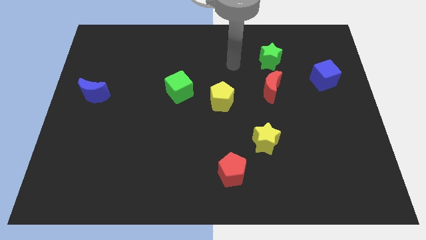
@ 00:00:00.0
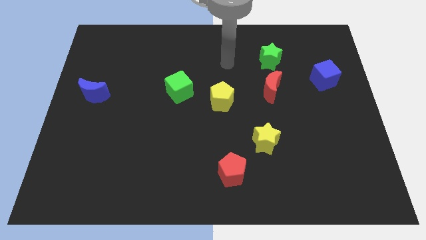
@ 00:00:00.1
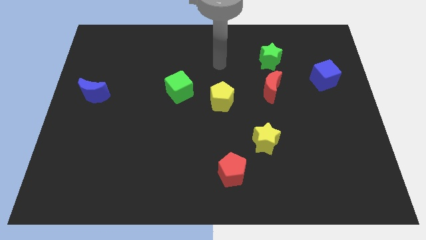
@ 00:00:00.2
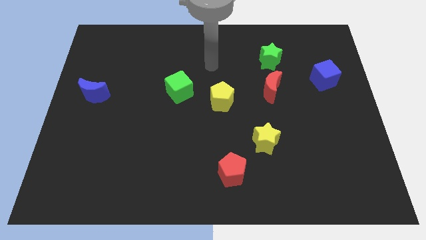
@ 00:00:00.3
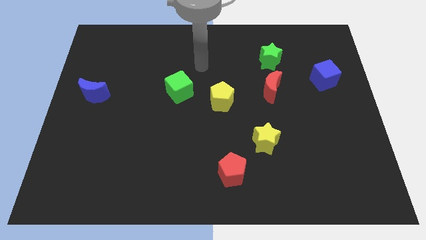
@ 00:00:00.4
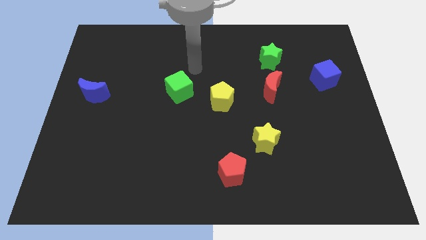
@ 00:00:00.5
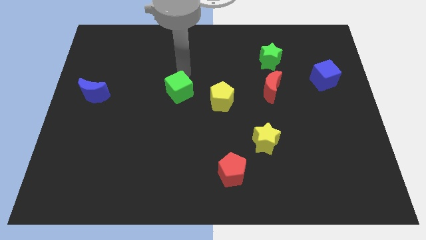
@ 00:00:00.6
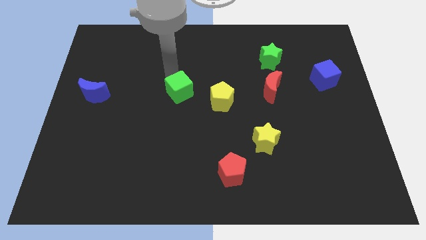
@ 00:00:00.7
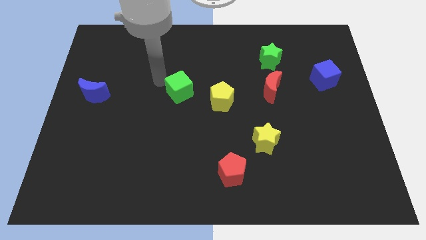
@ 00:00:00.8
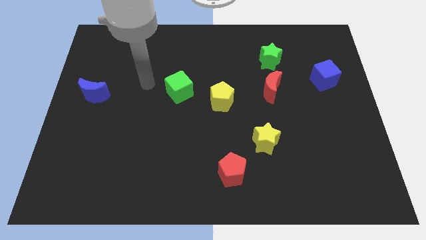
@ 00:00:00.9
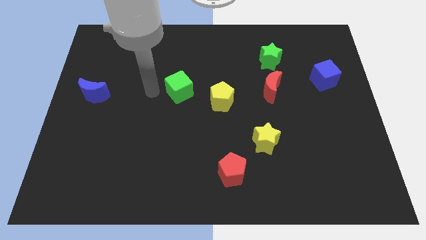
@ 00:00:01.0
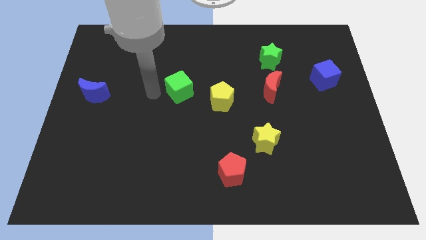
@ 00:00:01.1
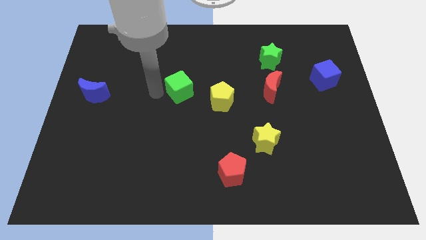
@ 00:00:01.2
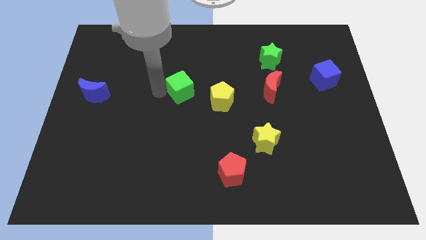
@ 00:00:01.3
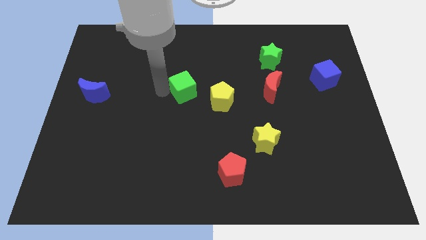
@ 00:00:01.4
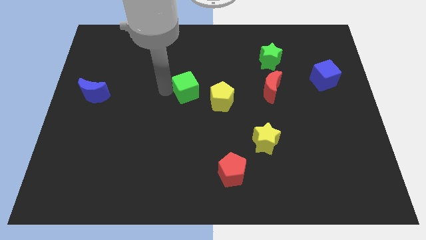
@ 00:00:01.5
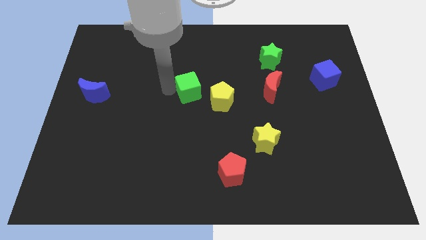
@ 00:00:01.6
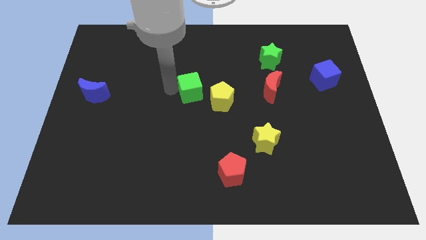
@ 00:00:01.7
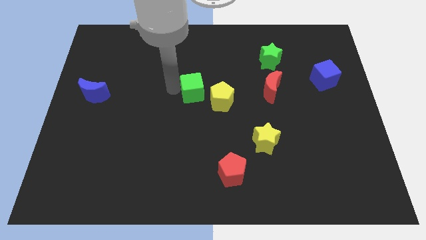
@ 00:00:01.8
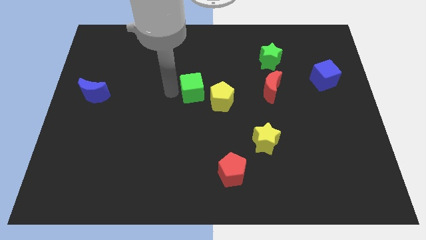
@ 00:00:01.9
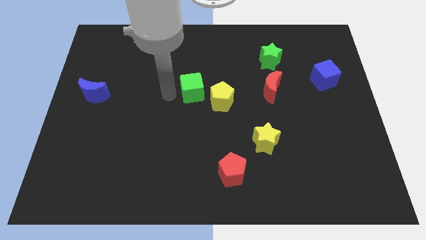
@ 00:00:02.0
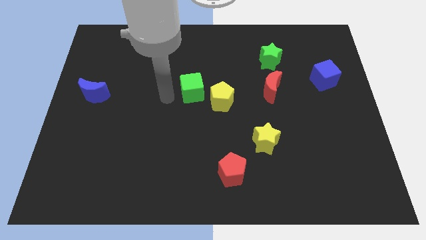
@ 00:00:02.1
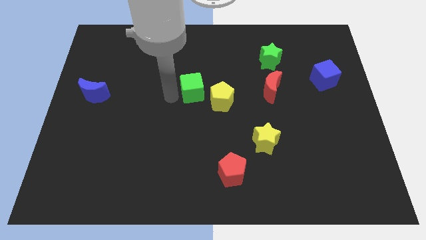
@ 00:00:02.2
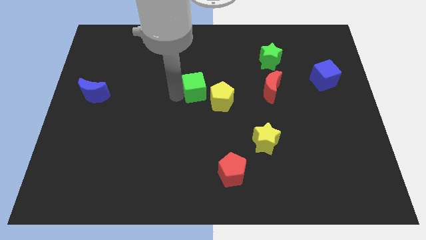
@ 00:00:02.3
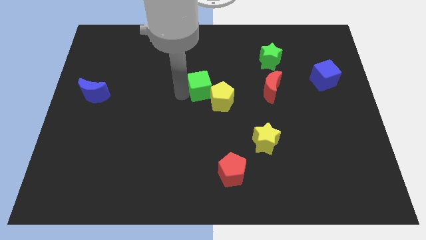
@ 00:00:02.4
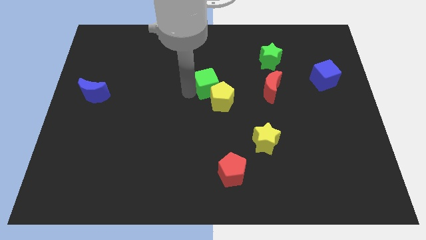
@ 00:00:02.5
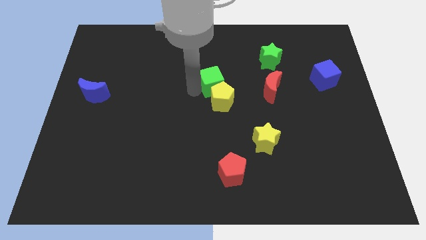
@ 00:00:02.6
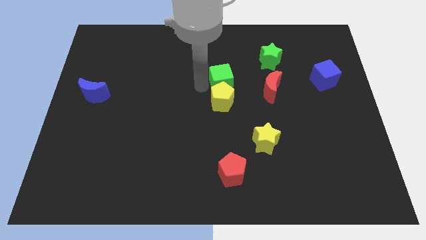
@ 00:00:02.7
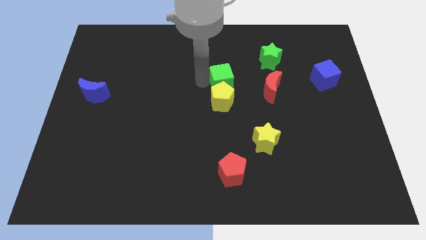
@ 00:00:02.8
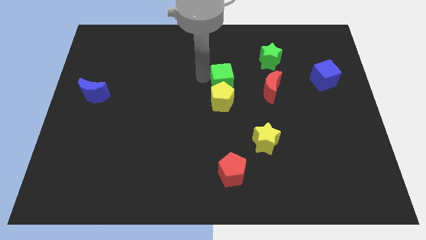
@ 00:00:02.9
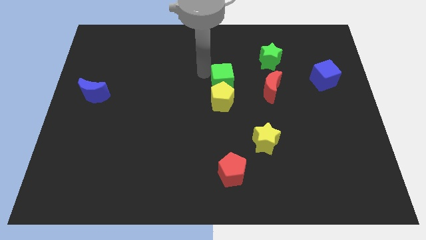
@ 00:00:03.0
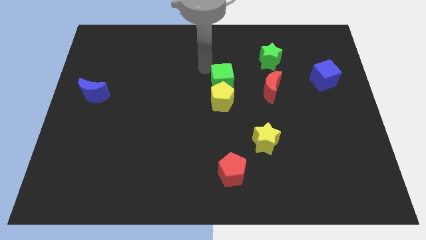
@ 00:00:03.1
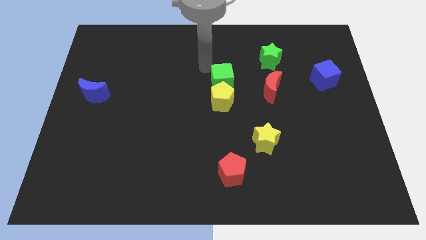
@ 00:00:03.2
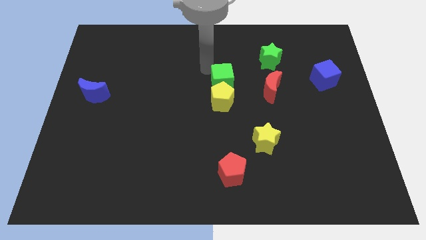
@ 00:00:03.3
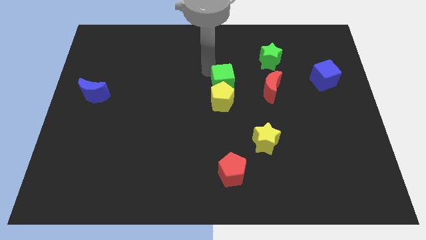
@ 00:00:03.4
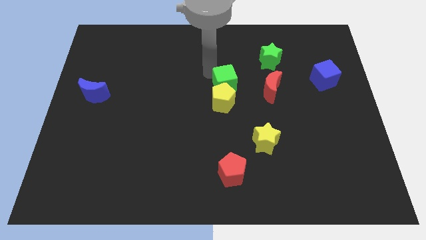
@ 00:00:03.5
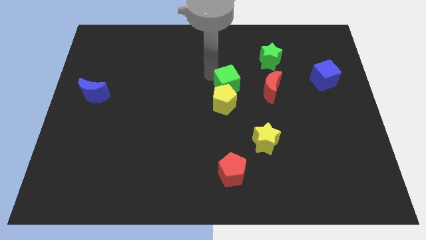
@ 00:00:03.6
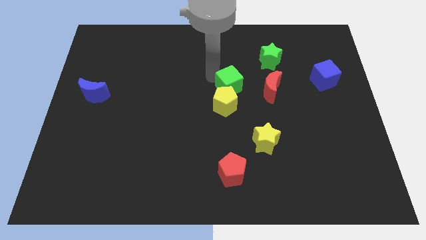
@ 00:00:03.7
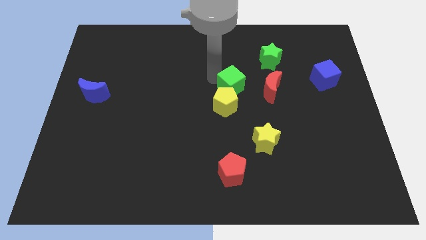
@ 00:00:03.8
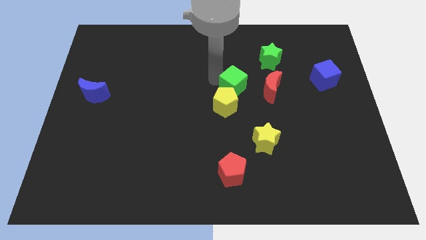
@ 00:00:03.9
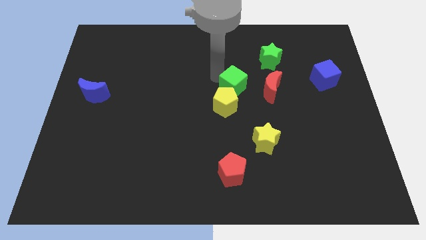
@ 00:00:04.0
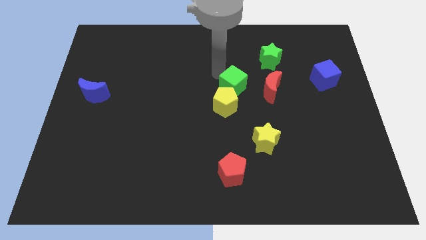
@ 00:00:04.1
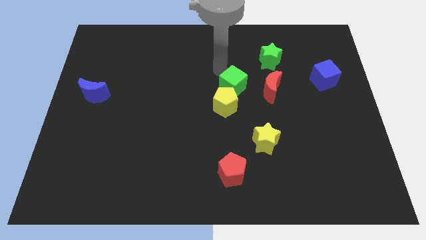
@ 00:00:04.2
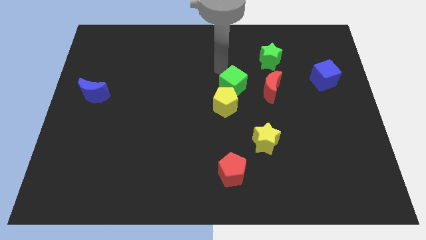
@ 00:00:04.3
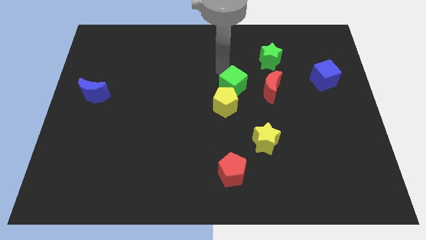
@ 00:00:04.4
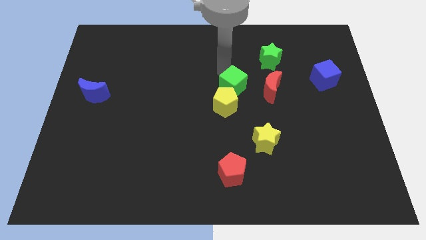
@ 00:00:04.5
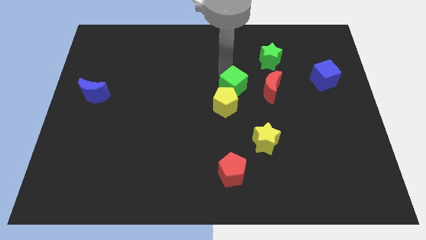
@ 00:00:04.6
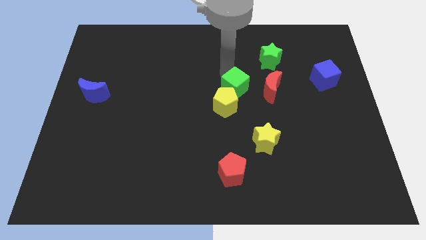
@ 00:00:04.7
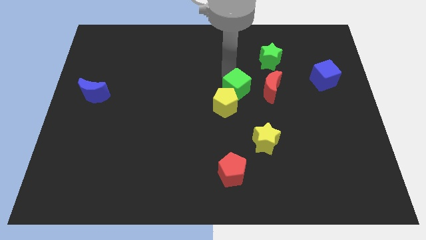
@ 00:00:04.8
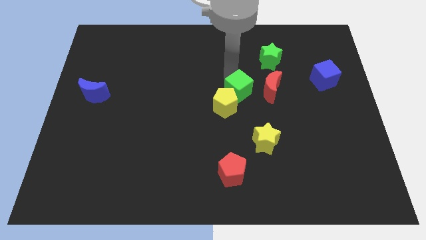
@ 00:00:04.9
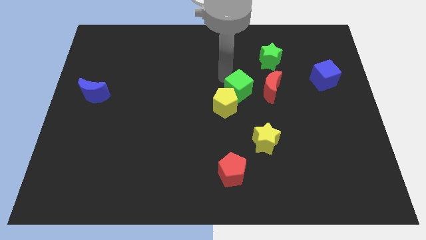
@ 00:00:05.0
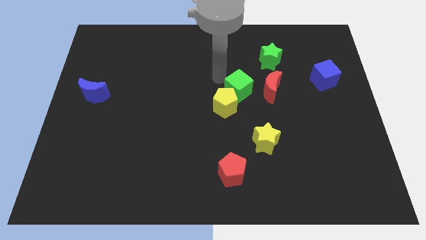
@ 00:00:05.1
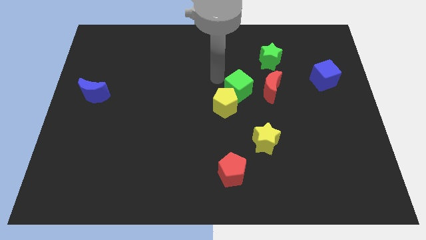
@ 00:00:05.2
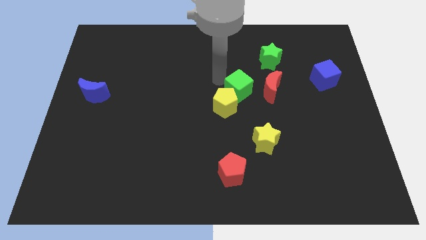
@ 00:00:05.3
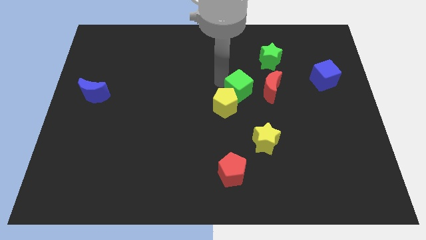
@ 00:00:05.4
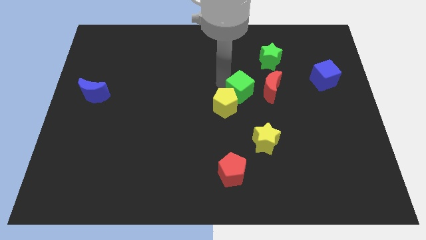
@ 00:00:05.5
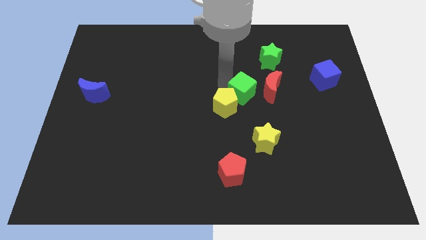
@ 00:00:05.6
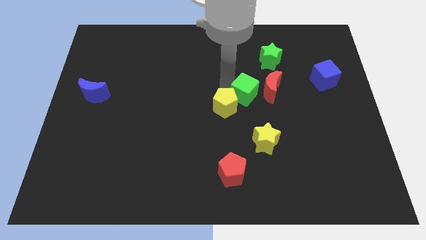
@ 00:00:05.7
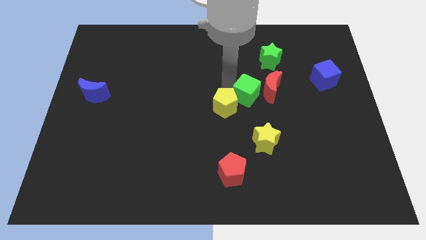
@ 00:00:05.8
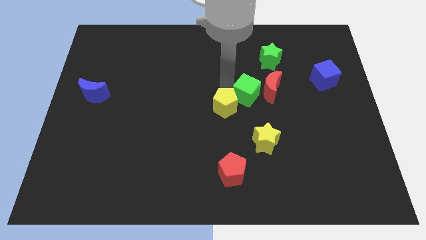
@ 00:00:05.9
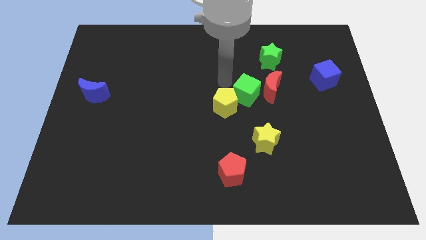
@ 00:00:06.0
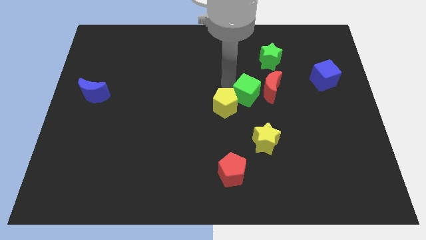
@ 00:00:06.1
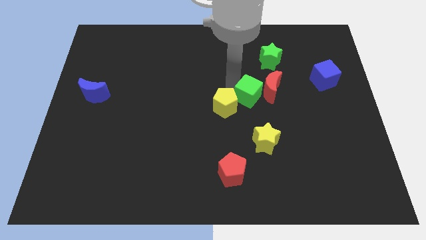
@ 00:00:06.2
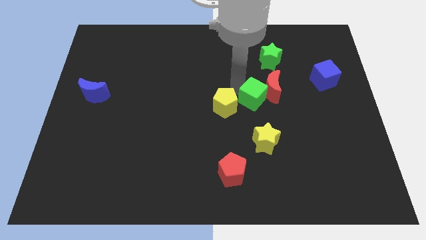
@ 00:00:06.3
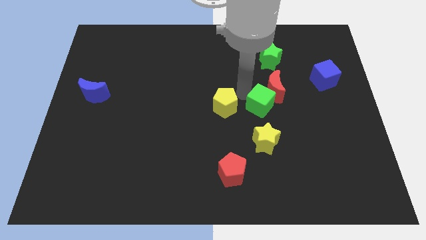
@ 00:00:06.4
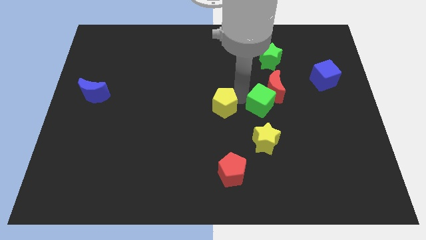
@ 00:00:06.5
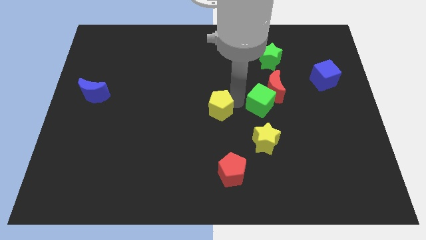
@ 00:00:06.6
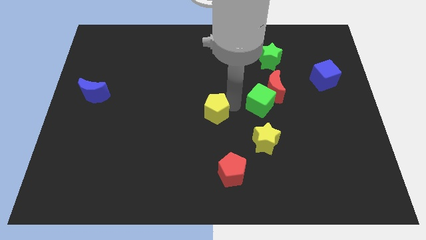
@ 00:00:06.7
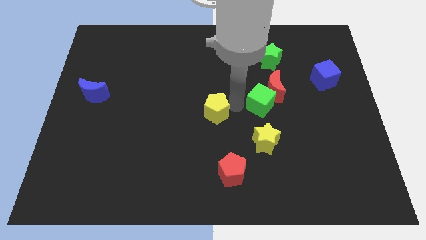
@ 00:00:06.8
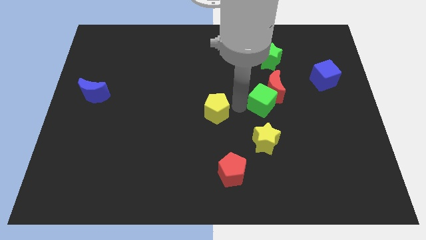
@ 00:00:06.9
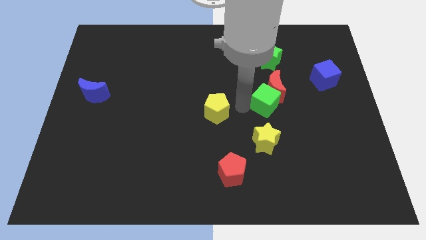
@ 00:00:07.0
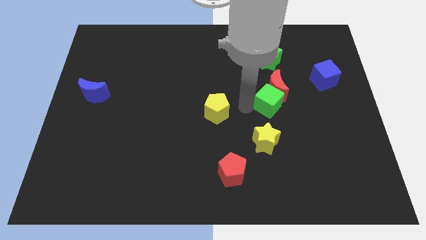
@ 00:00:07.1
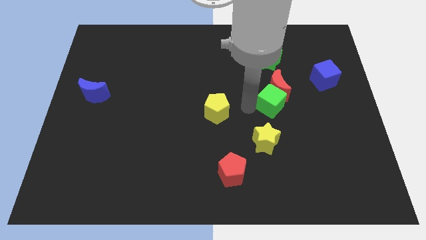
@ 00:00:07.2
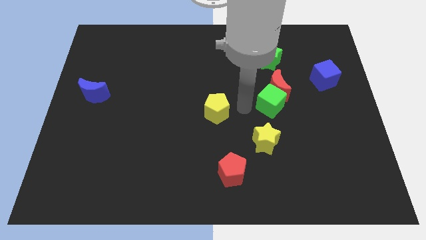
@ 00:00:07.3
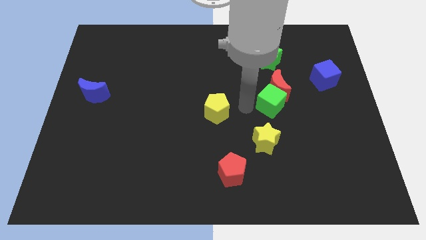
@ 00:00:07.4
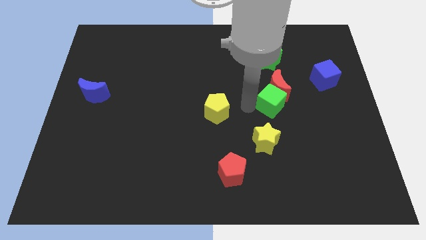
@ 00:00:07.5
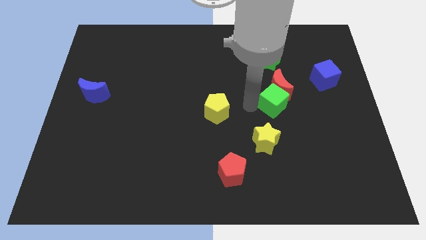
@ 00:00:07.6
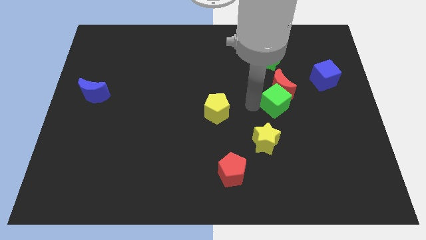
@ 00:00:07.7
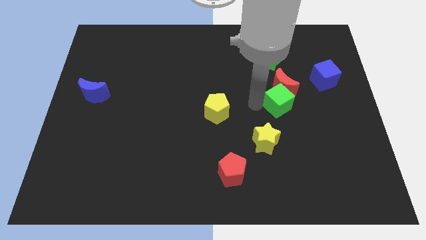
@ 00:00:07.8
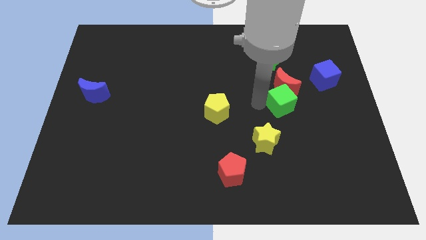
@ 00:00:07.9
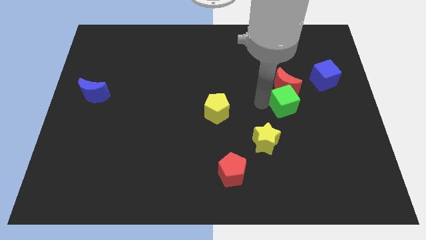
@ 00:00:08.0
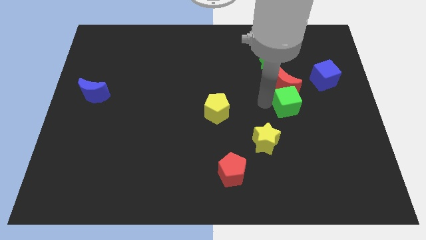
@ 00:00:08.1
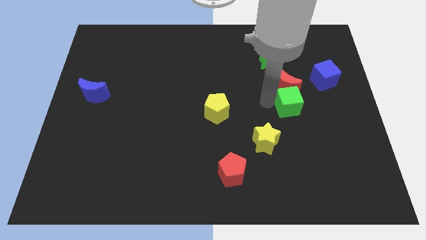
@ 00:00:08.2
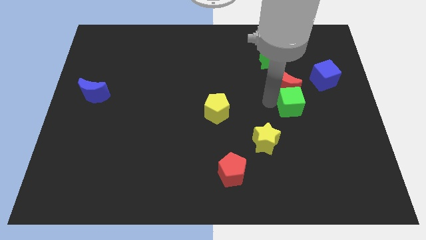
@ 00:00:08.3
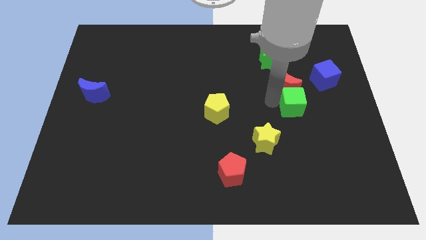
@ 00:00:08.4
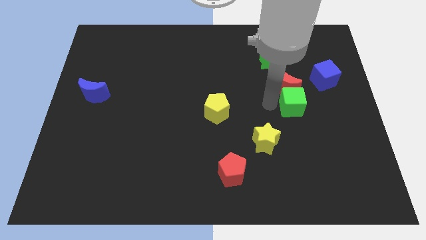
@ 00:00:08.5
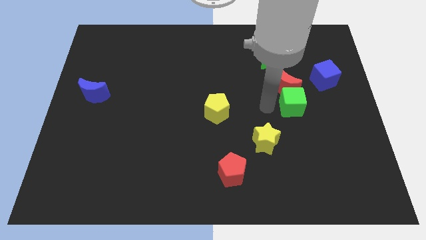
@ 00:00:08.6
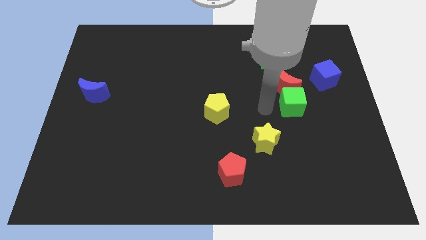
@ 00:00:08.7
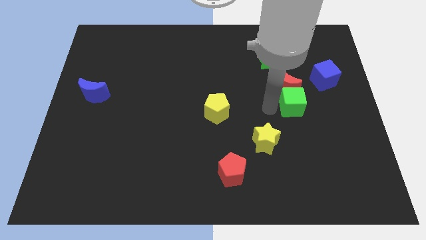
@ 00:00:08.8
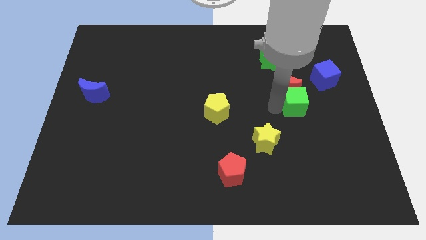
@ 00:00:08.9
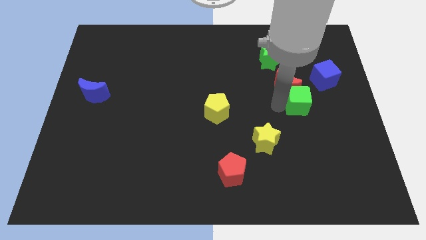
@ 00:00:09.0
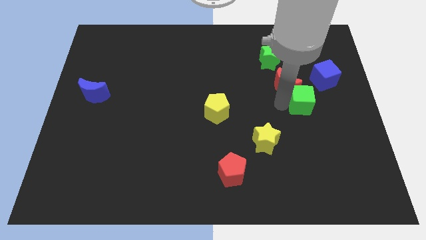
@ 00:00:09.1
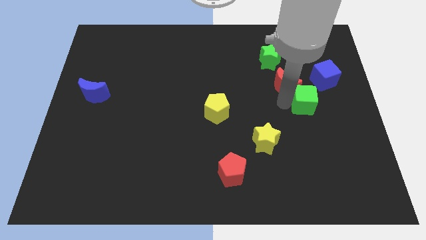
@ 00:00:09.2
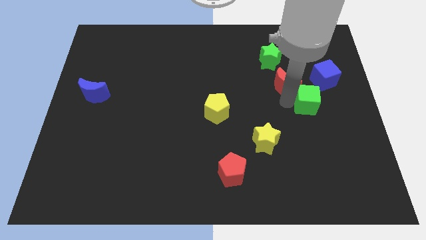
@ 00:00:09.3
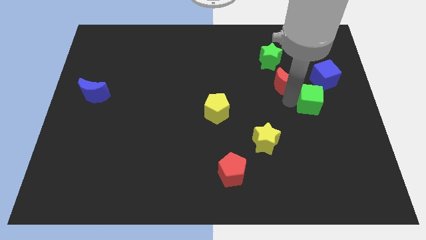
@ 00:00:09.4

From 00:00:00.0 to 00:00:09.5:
slide the green cube to the bottom side of the blue cube
